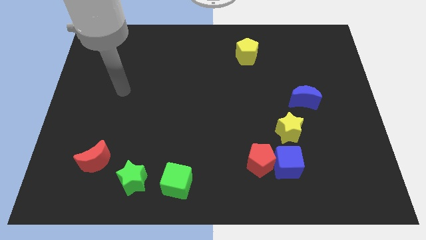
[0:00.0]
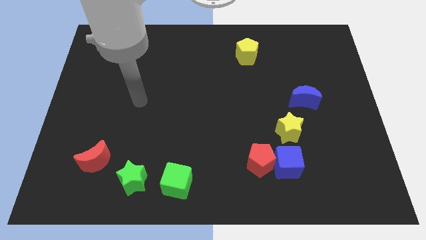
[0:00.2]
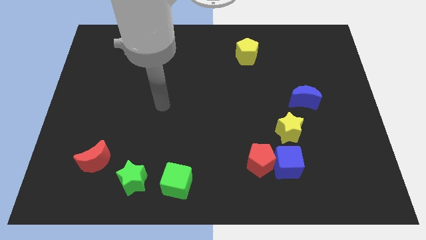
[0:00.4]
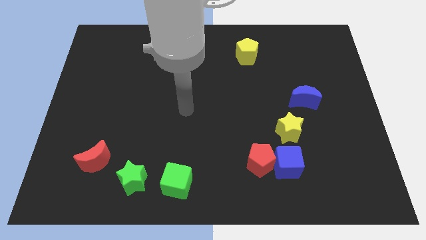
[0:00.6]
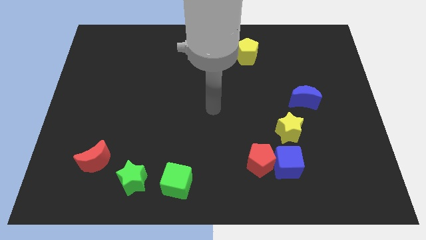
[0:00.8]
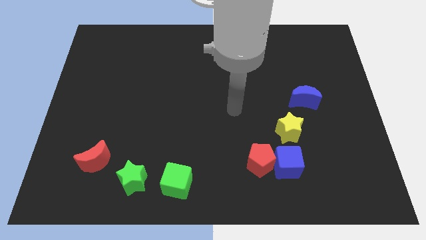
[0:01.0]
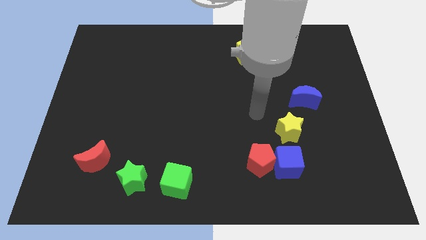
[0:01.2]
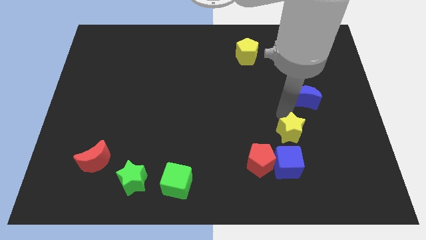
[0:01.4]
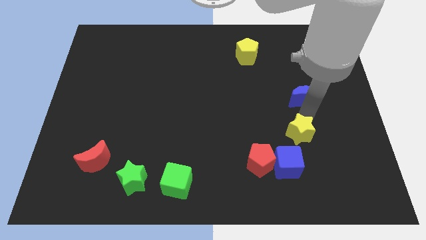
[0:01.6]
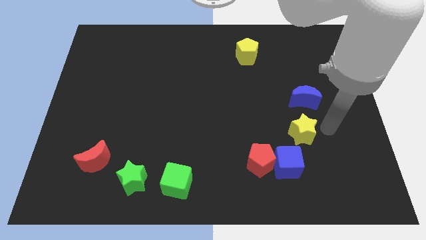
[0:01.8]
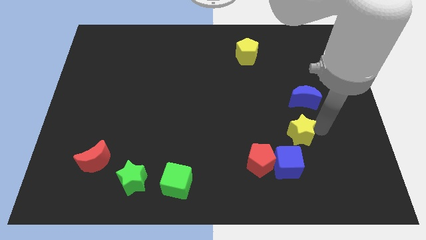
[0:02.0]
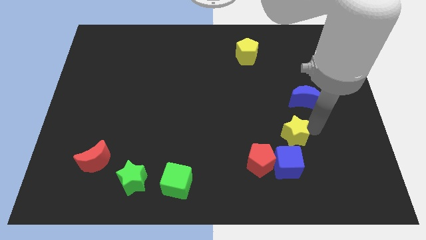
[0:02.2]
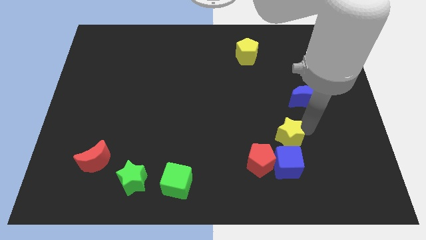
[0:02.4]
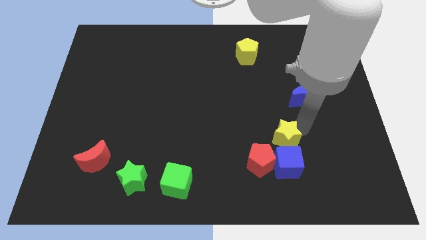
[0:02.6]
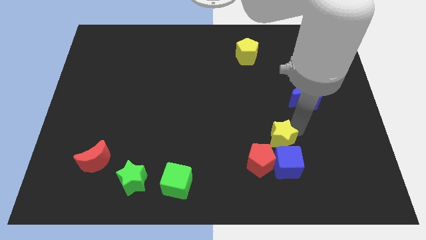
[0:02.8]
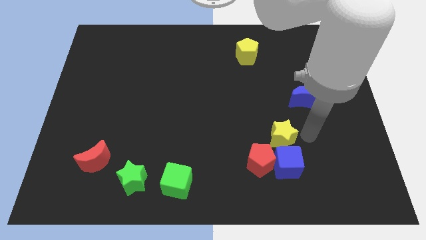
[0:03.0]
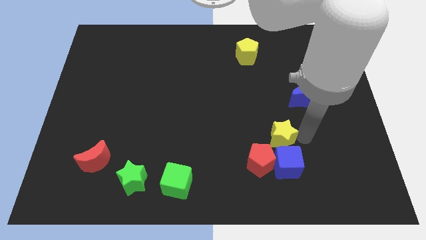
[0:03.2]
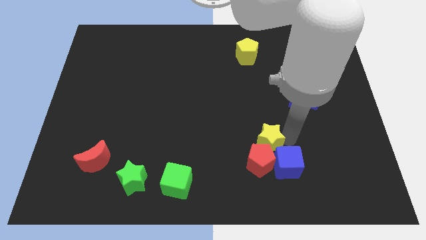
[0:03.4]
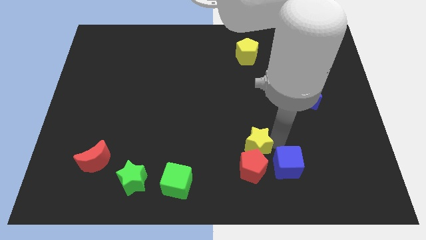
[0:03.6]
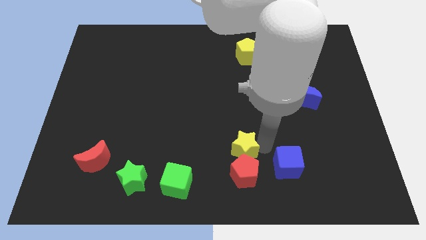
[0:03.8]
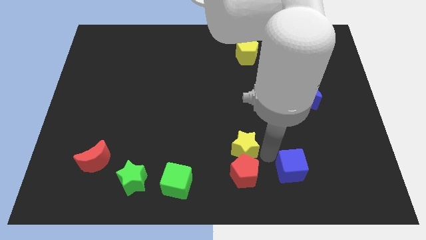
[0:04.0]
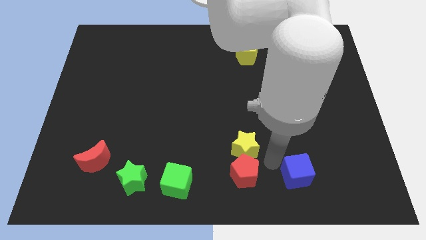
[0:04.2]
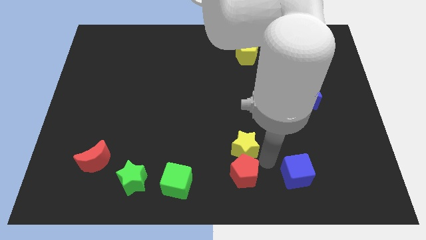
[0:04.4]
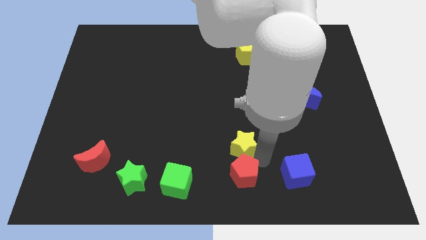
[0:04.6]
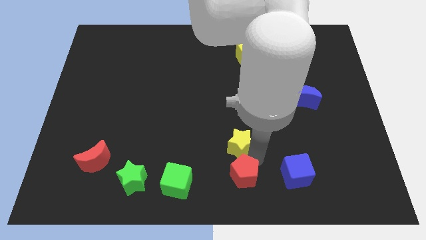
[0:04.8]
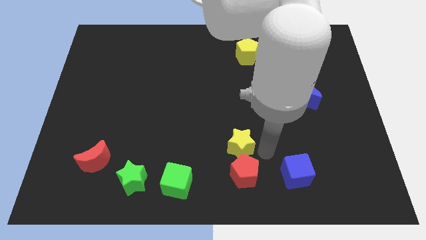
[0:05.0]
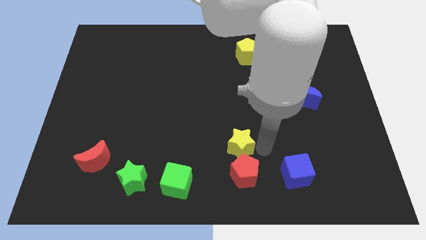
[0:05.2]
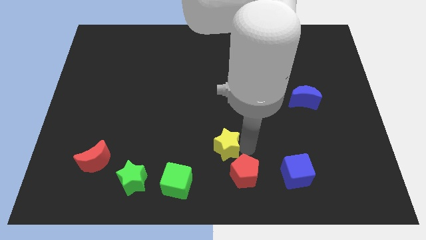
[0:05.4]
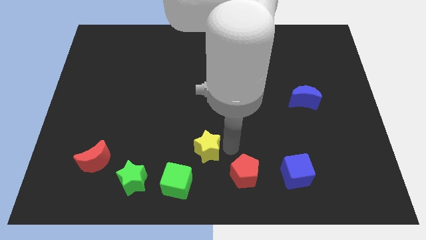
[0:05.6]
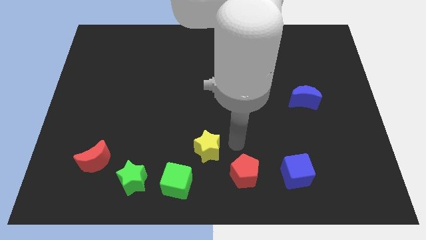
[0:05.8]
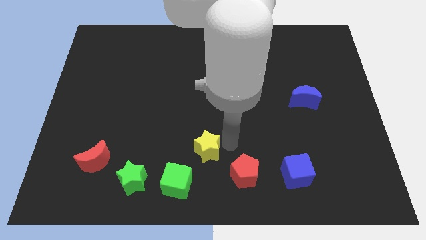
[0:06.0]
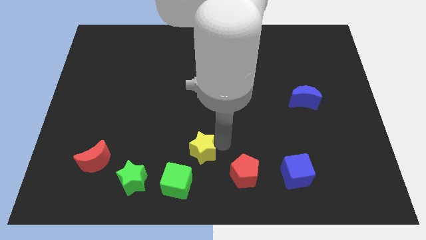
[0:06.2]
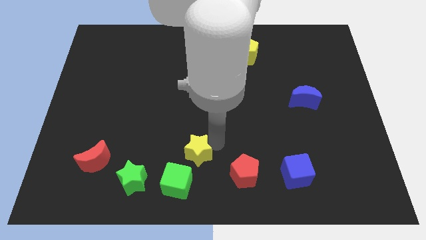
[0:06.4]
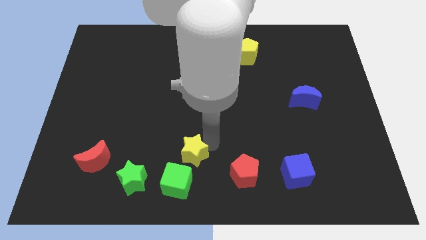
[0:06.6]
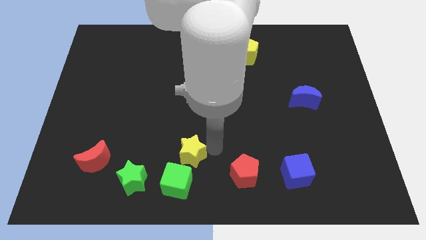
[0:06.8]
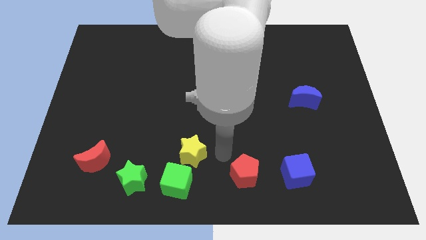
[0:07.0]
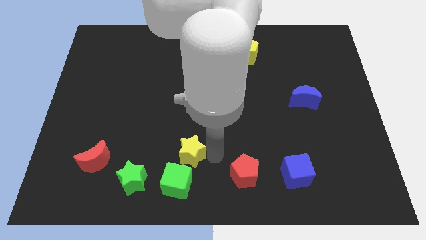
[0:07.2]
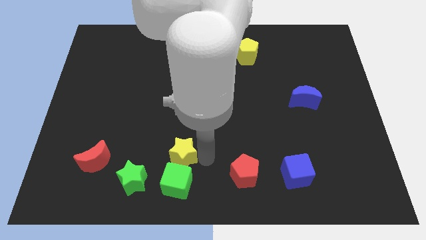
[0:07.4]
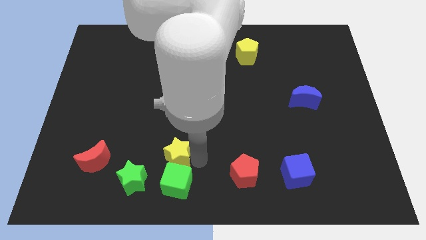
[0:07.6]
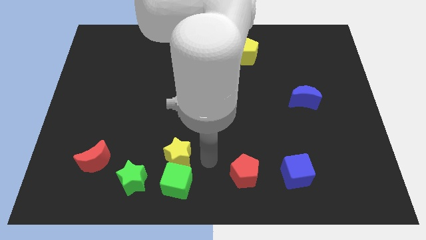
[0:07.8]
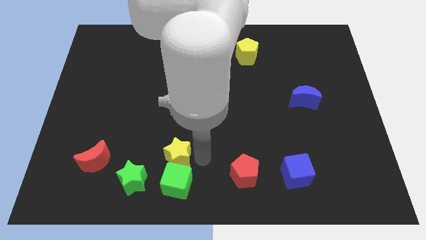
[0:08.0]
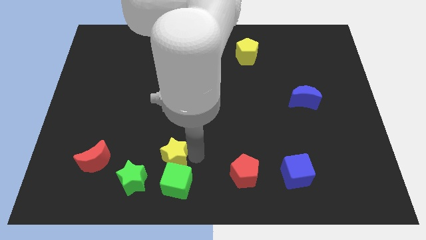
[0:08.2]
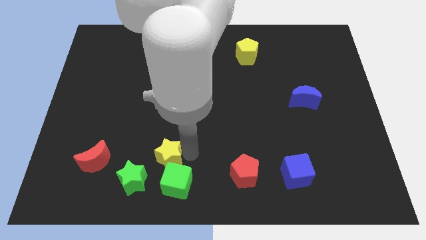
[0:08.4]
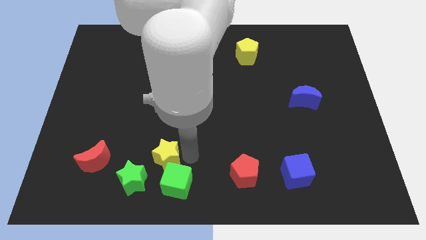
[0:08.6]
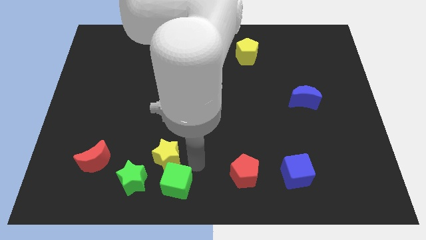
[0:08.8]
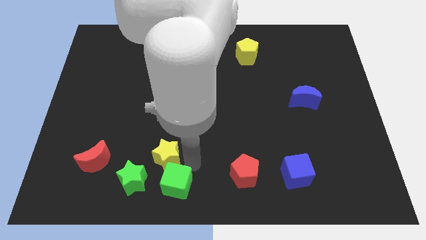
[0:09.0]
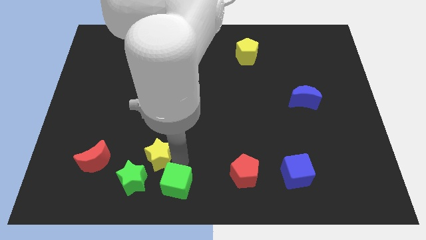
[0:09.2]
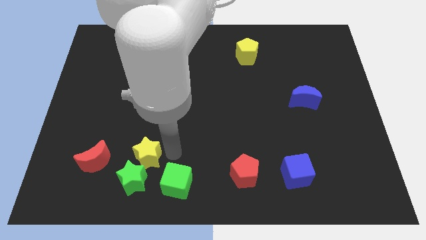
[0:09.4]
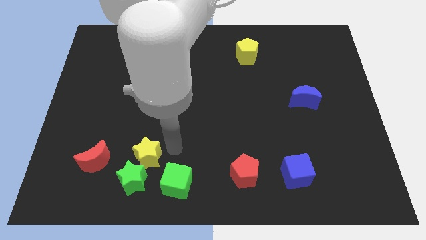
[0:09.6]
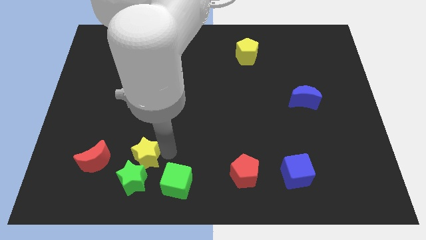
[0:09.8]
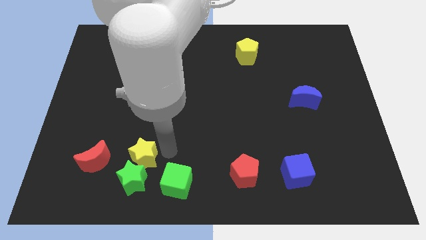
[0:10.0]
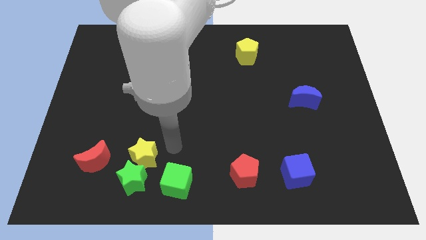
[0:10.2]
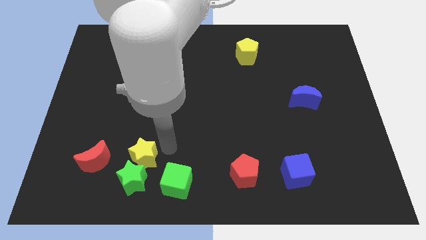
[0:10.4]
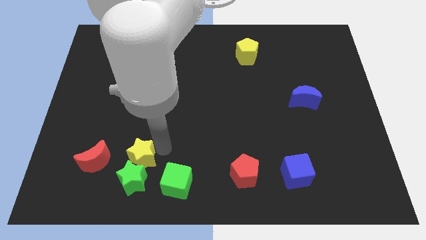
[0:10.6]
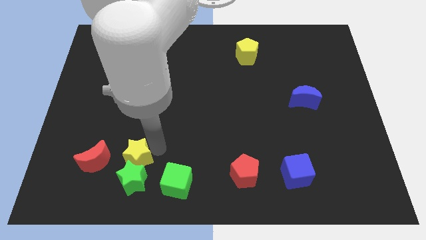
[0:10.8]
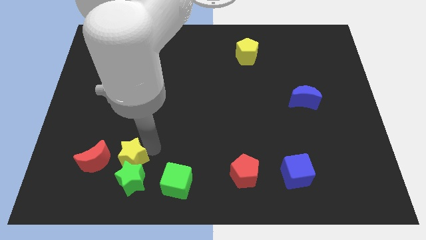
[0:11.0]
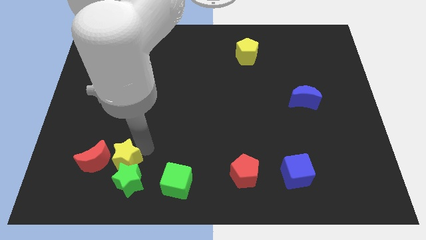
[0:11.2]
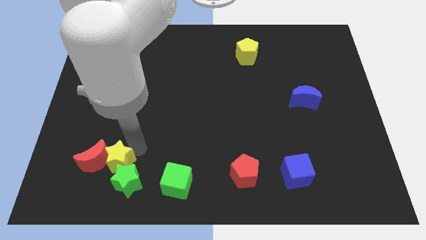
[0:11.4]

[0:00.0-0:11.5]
slide the yellow star to the left of the green cube

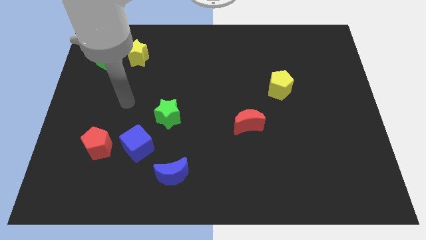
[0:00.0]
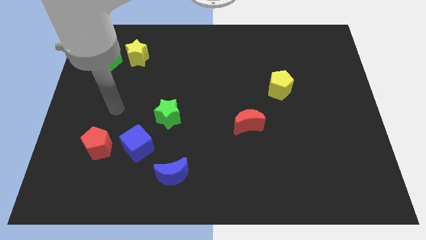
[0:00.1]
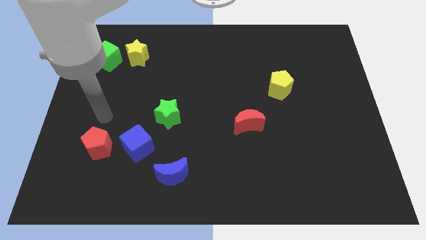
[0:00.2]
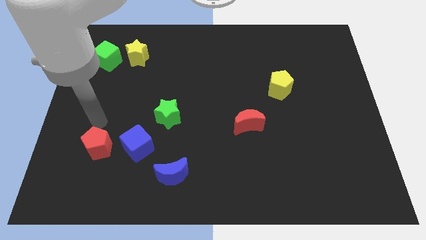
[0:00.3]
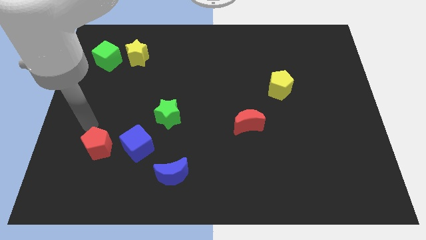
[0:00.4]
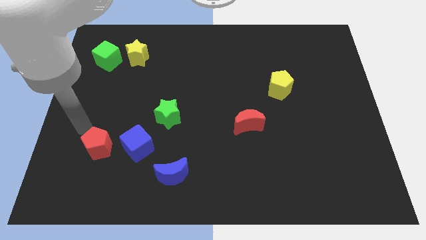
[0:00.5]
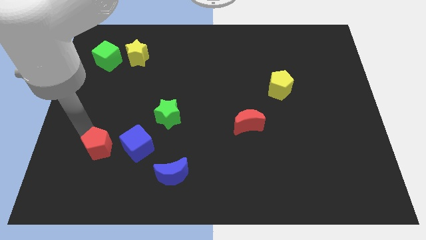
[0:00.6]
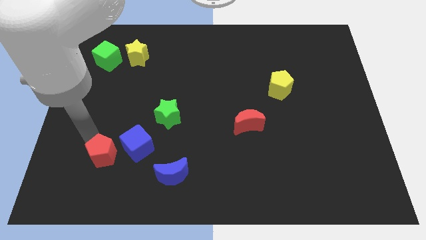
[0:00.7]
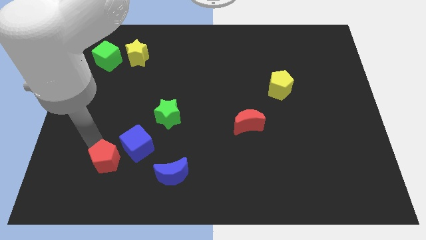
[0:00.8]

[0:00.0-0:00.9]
move the red pentagon to the left of the blue moon
